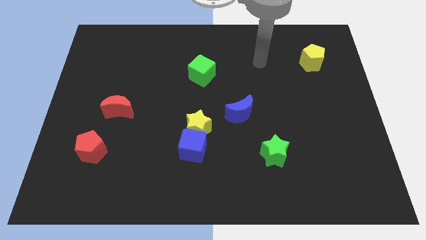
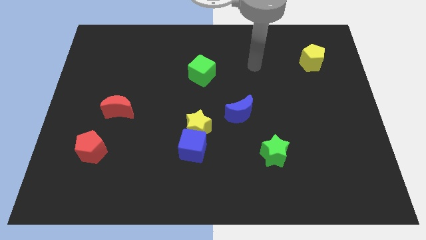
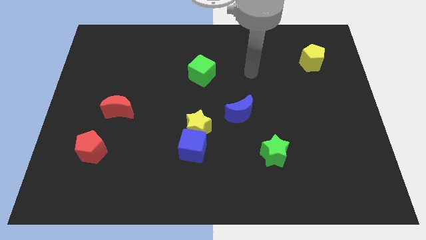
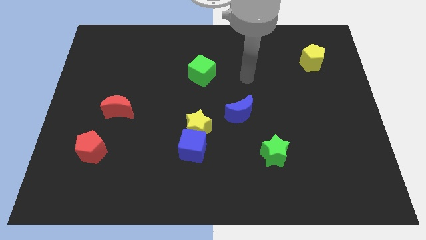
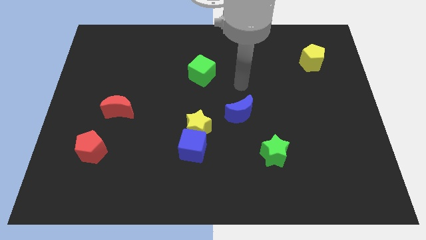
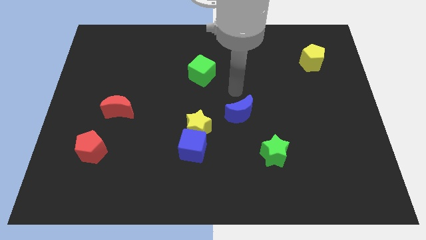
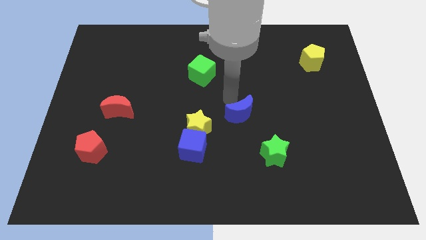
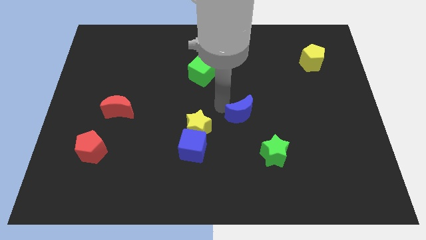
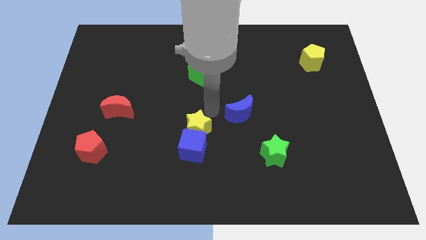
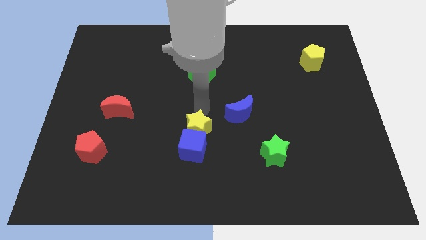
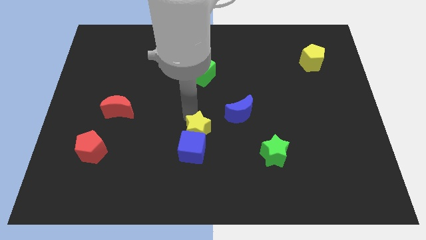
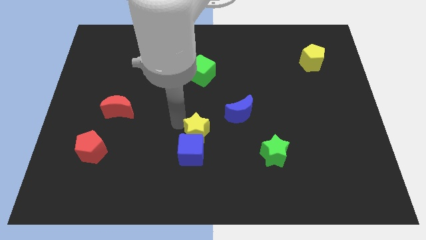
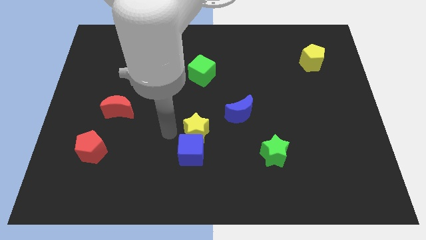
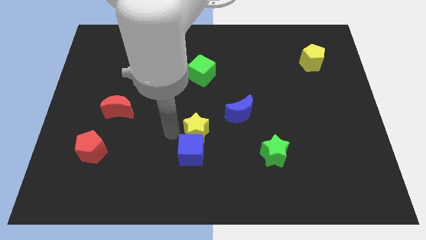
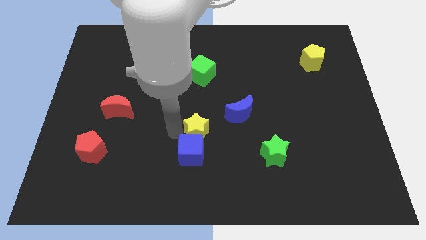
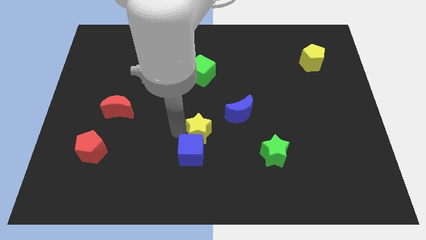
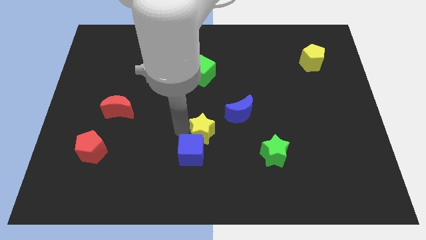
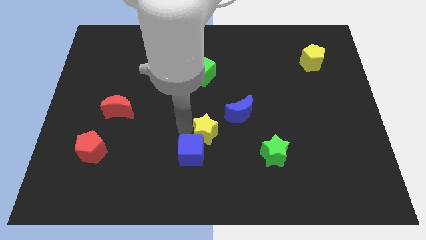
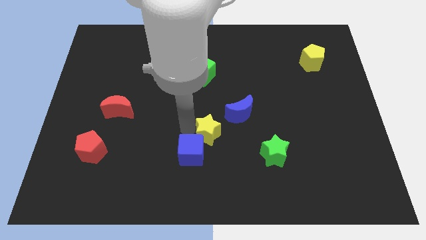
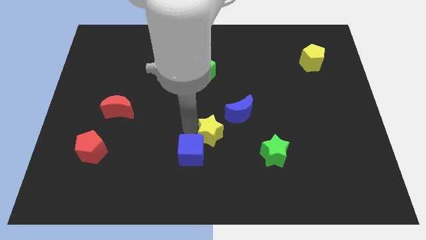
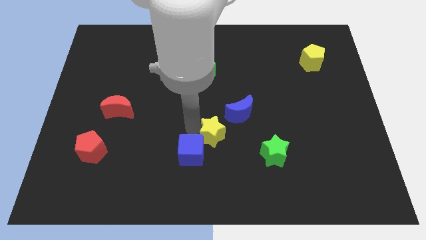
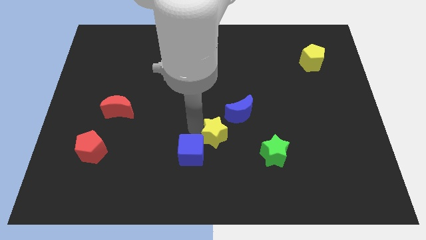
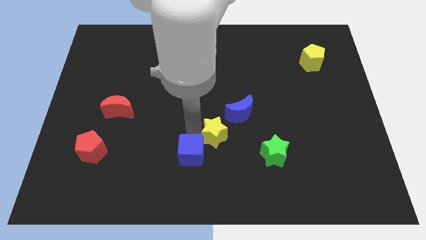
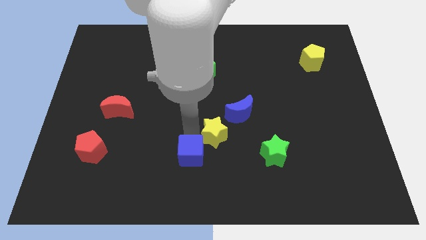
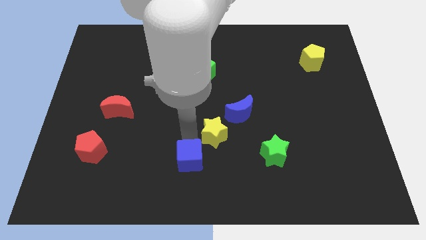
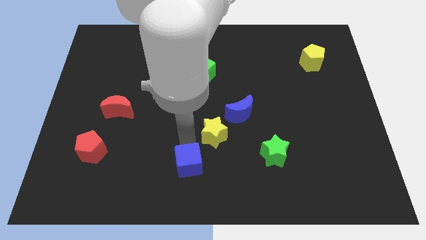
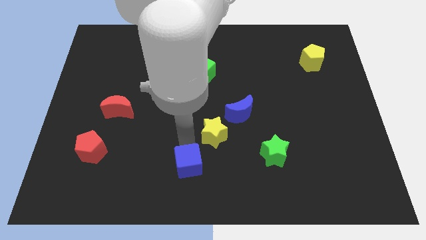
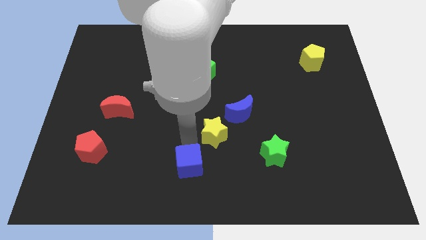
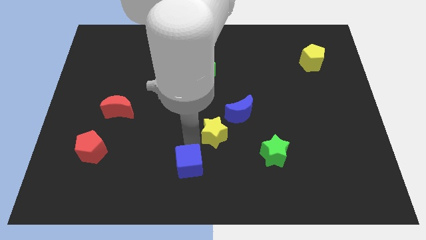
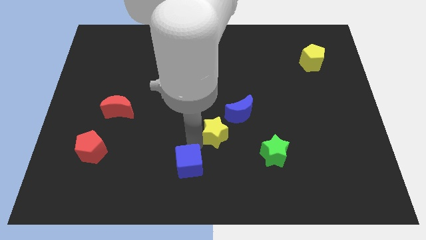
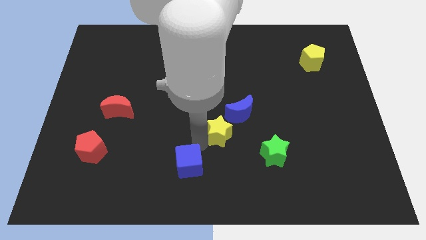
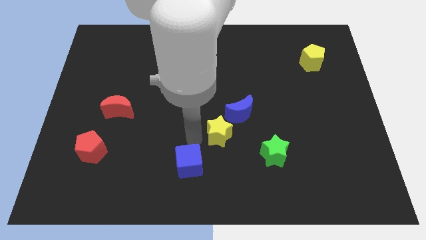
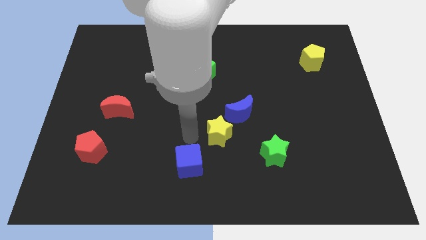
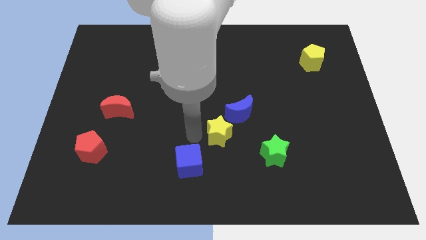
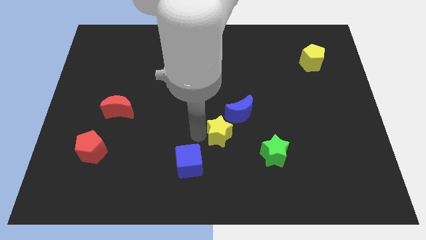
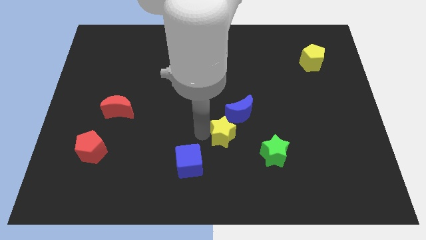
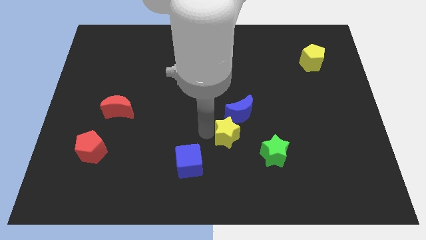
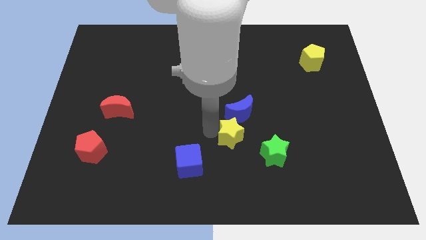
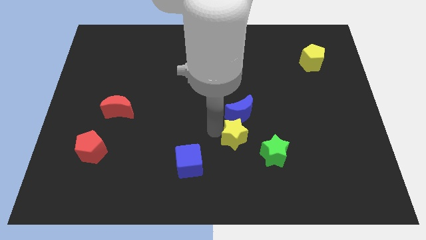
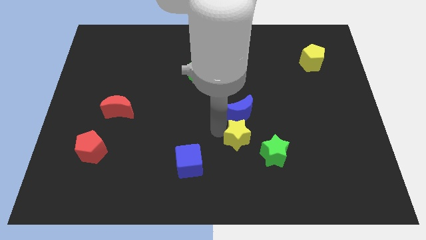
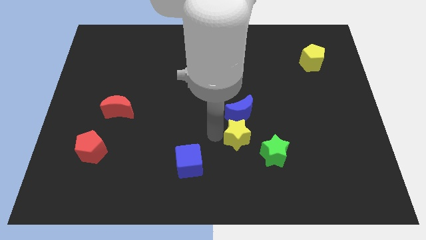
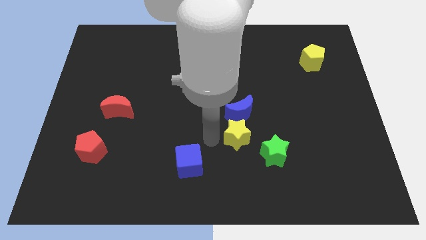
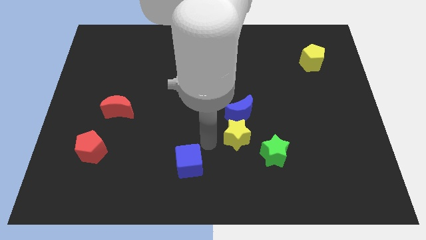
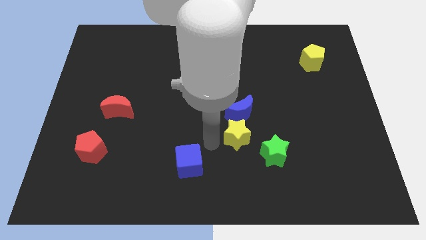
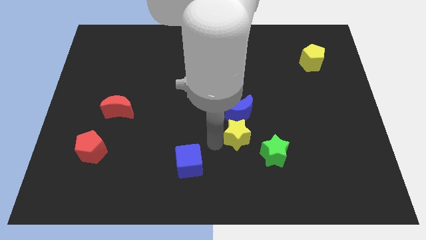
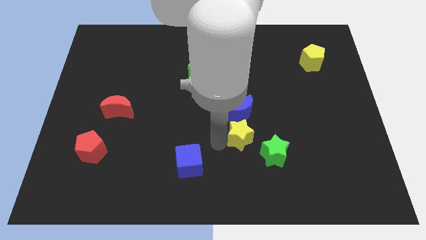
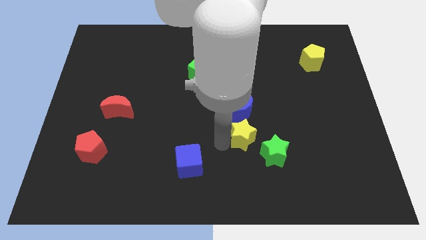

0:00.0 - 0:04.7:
put the yellow star to the bottom right side of the blue moon

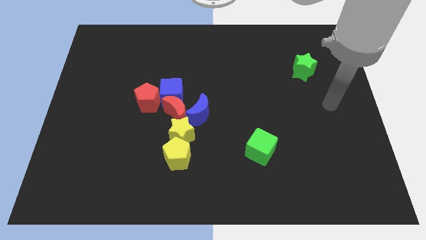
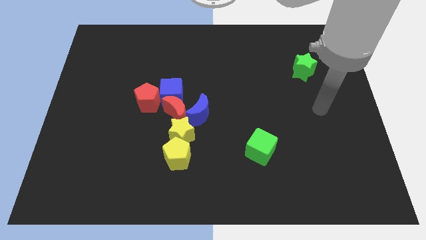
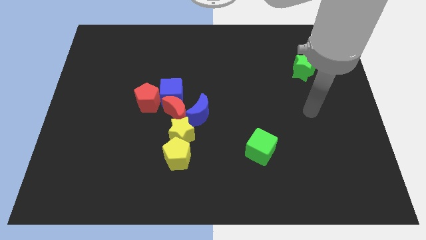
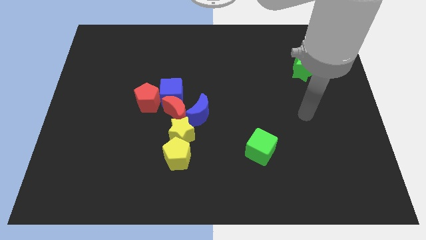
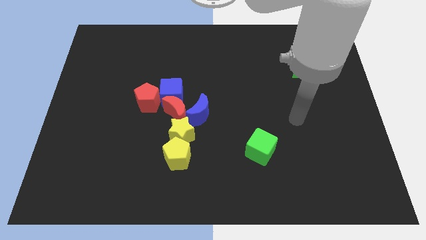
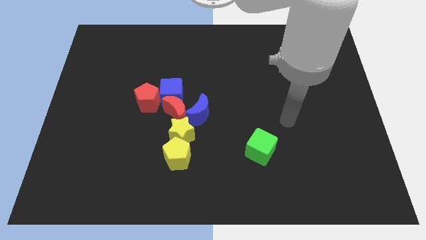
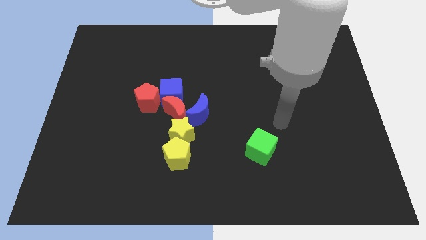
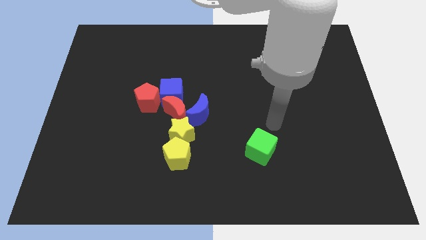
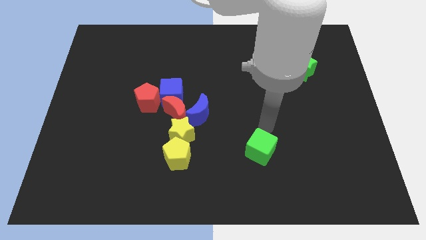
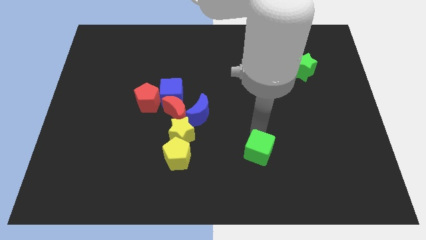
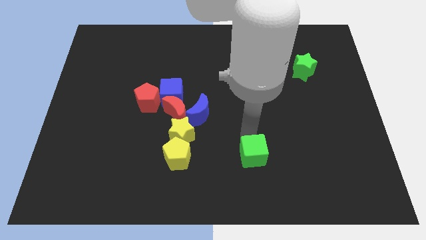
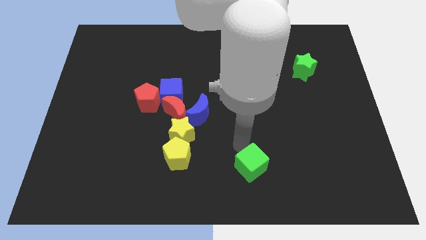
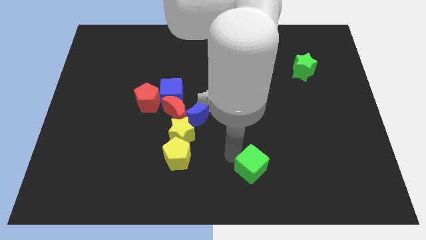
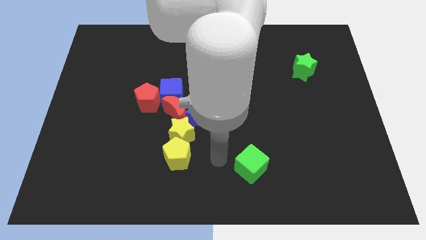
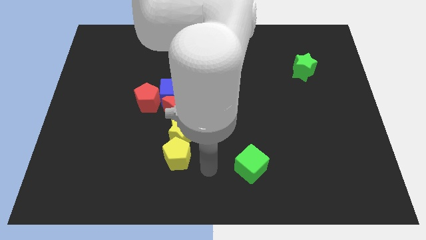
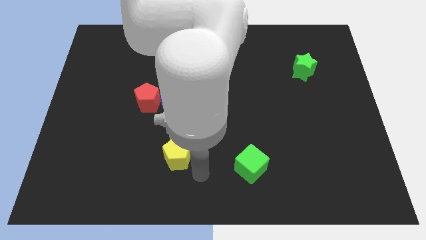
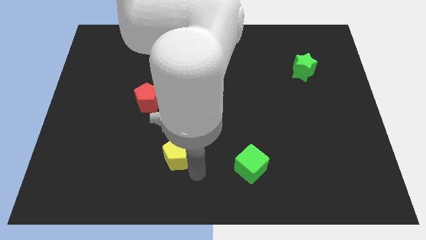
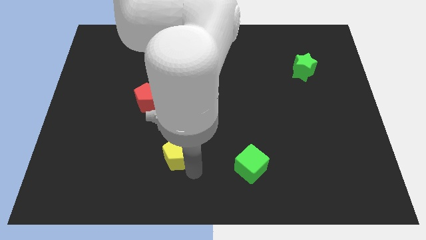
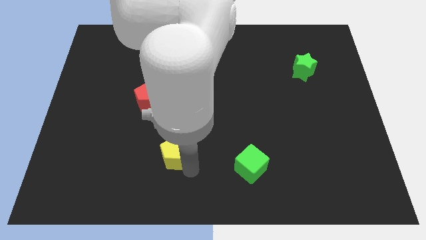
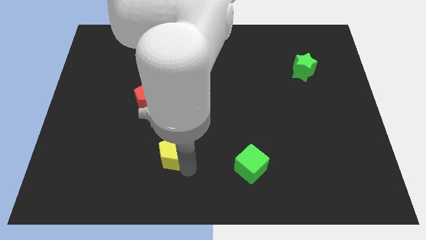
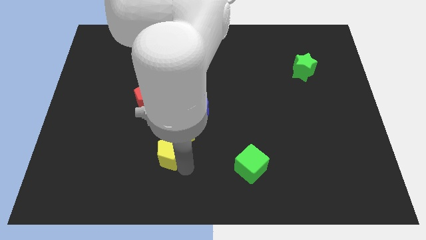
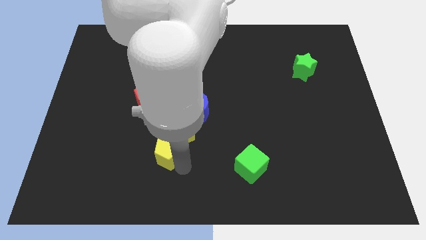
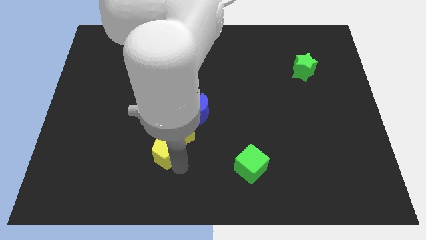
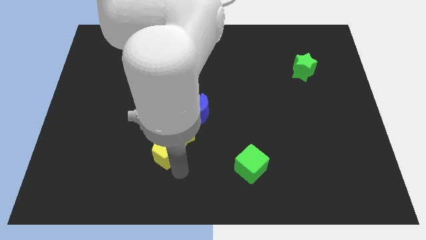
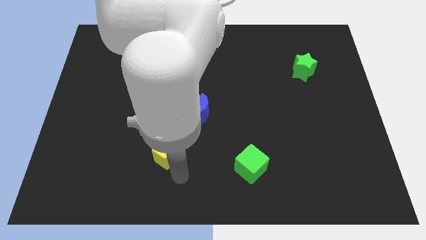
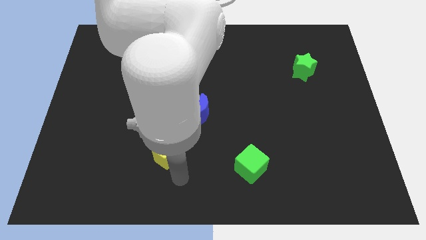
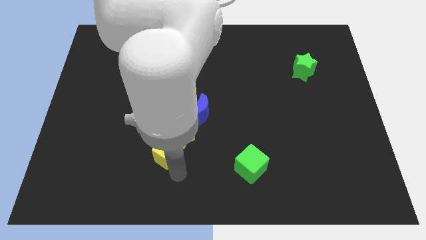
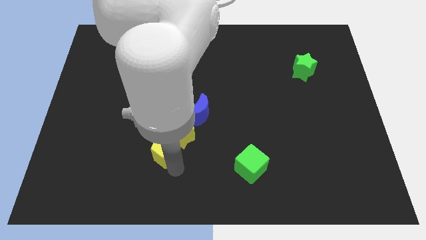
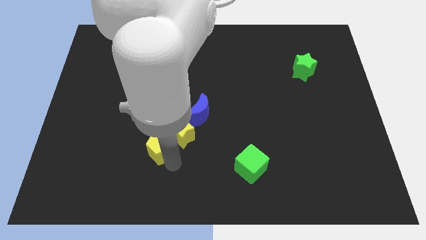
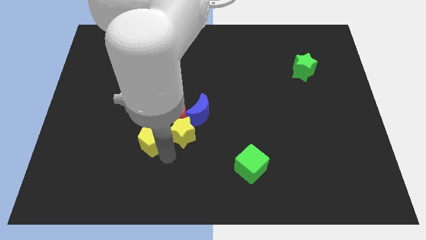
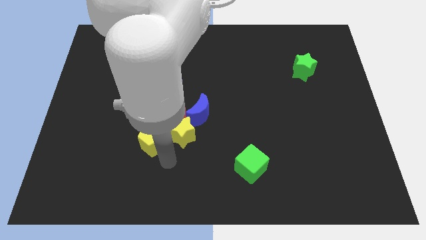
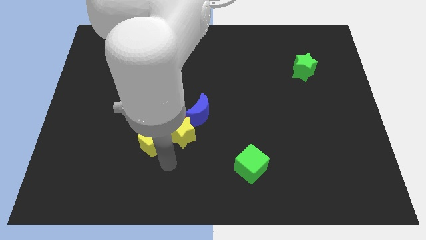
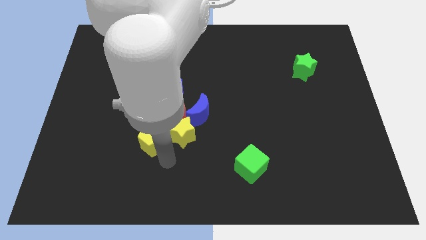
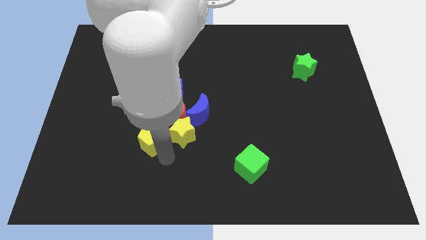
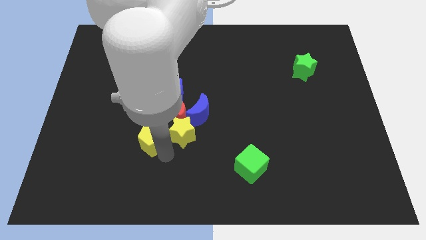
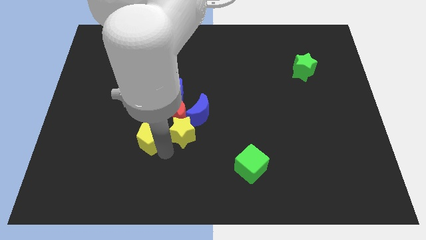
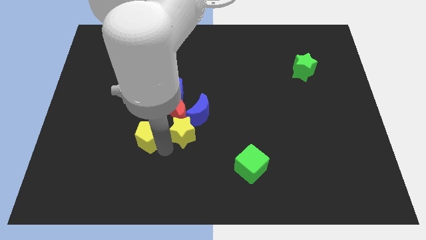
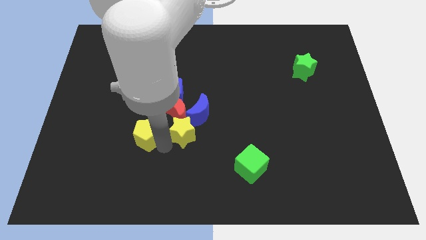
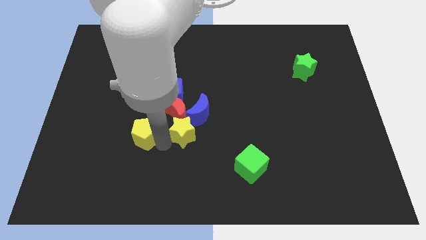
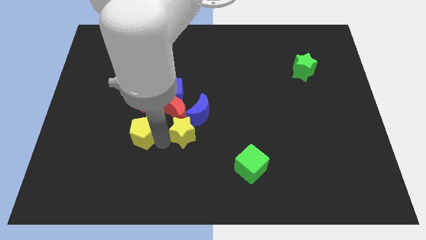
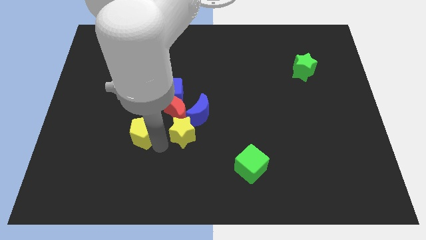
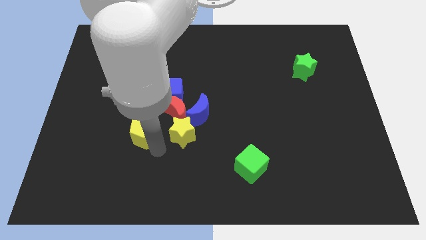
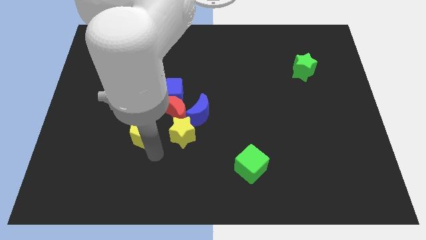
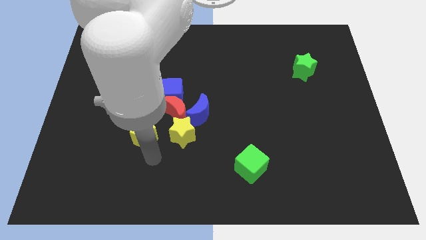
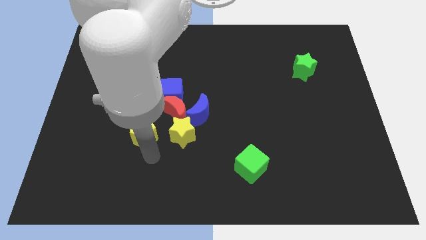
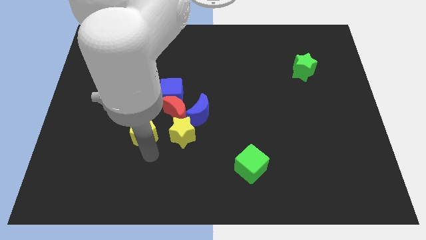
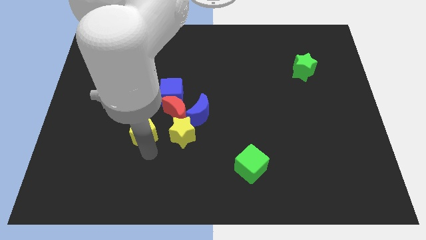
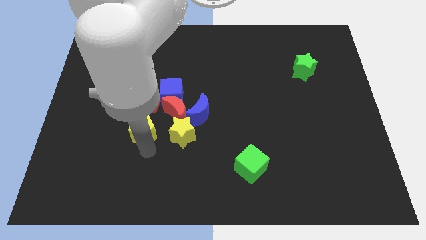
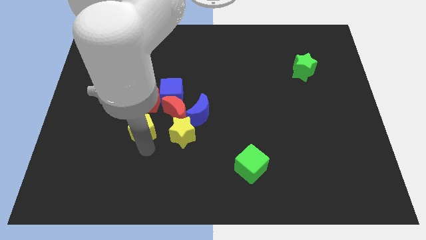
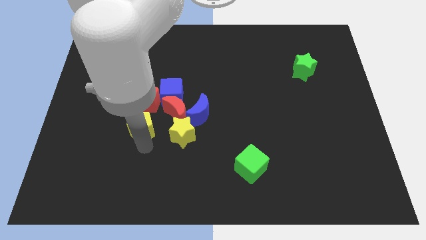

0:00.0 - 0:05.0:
move the yellow pentagon to the left side of the red moon
